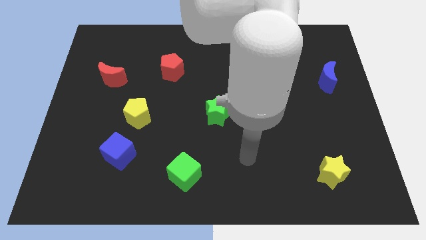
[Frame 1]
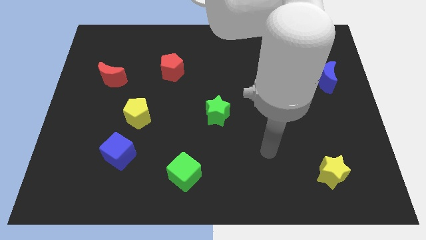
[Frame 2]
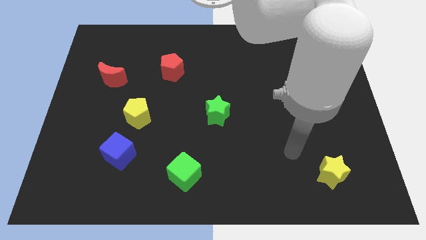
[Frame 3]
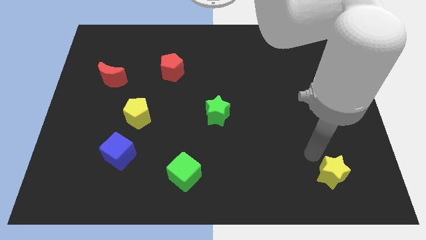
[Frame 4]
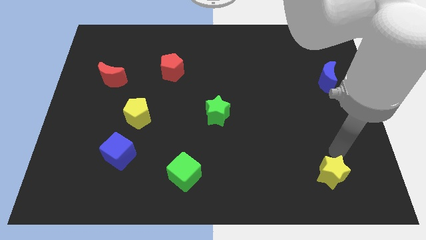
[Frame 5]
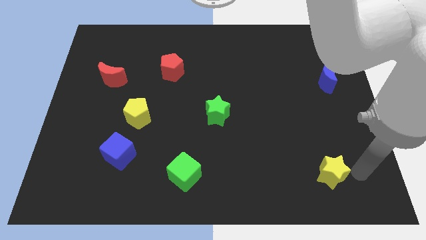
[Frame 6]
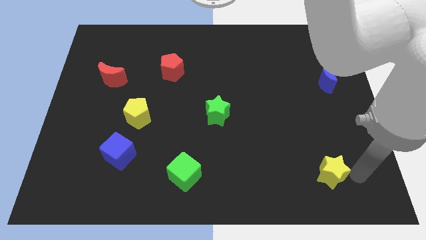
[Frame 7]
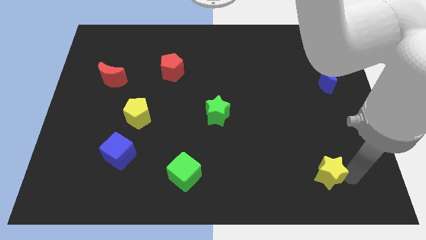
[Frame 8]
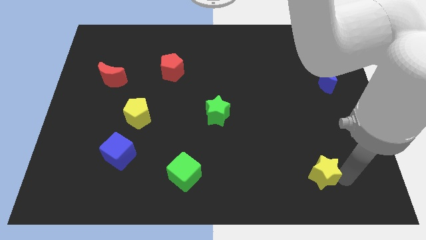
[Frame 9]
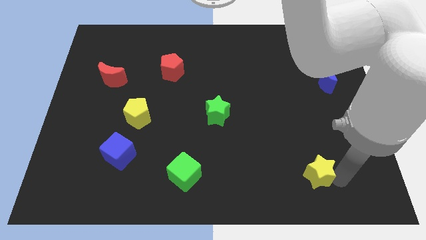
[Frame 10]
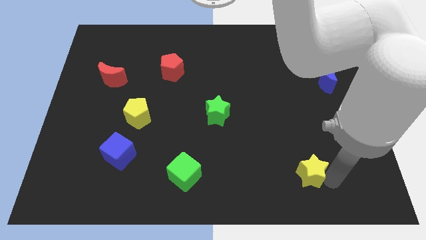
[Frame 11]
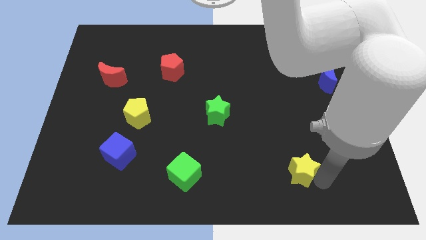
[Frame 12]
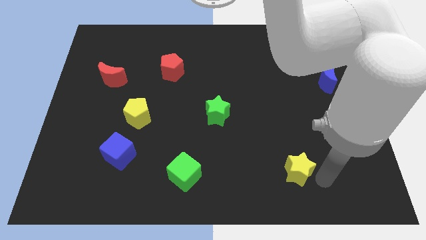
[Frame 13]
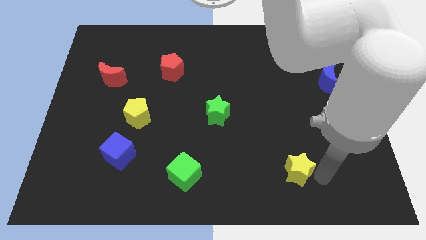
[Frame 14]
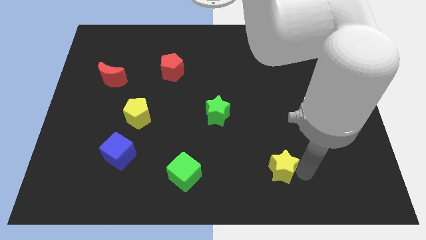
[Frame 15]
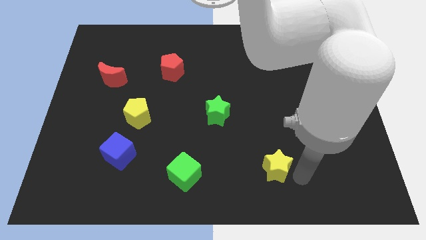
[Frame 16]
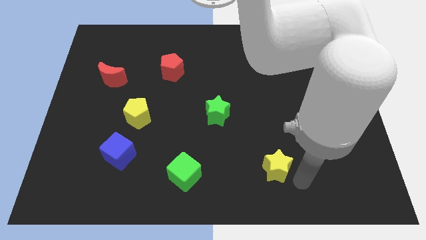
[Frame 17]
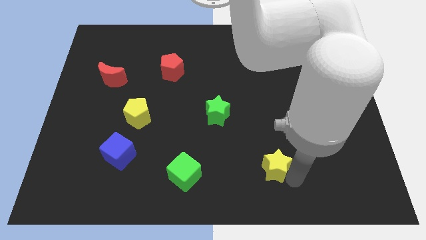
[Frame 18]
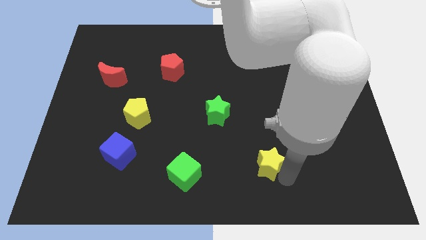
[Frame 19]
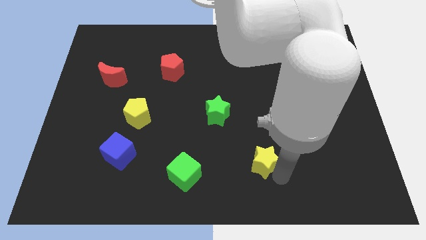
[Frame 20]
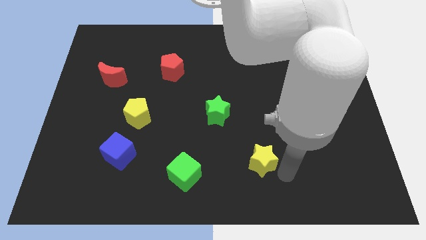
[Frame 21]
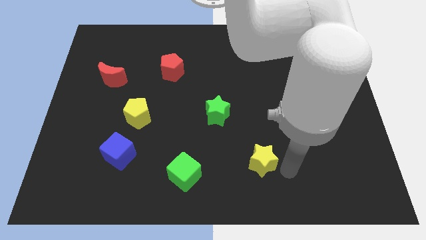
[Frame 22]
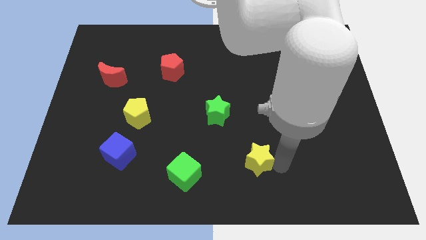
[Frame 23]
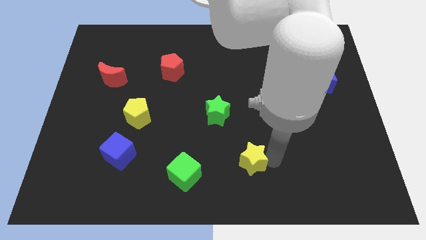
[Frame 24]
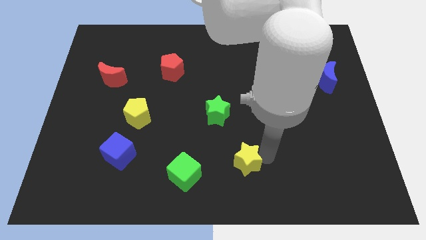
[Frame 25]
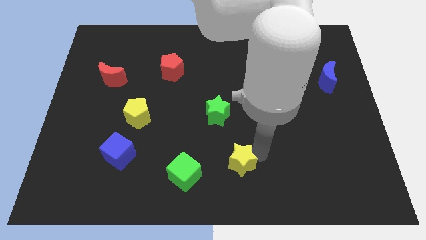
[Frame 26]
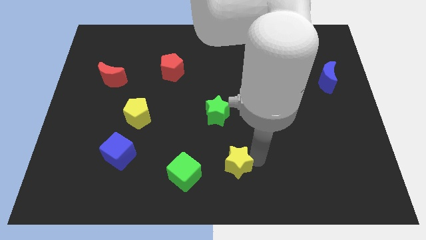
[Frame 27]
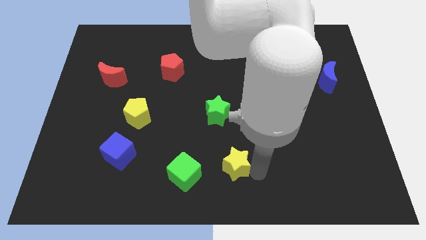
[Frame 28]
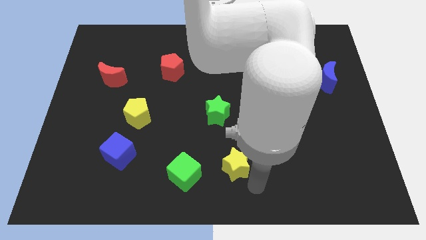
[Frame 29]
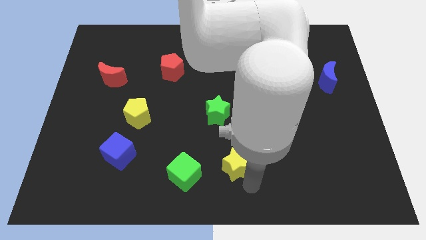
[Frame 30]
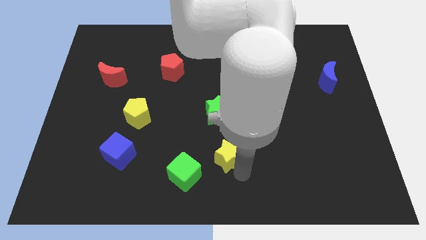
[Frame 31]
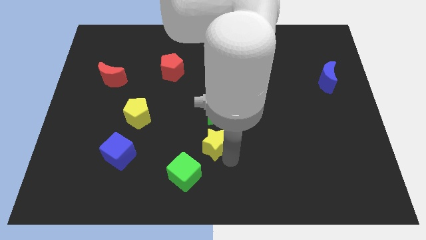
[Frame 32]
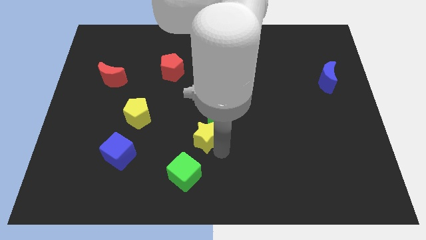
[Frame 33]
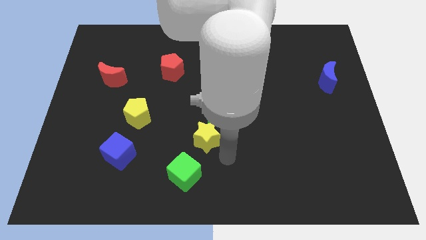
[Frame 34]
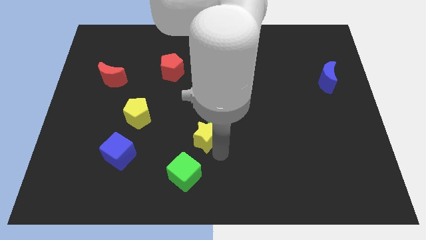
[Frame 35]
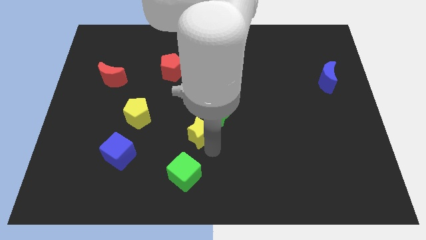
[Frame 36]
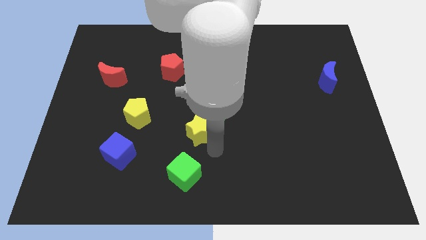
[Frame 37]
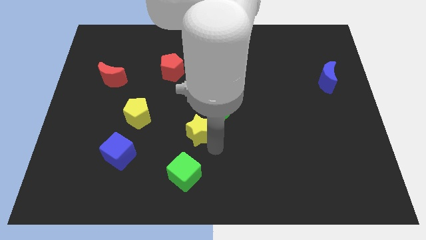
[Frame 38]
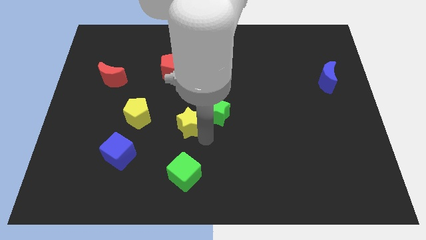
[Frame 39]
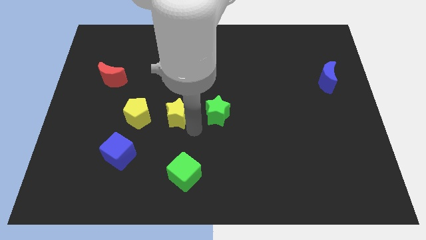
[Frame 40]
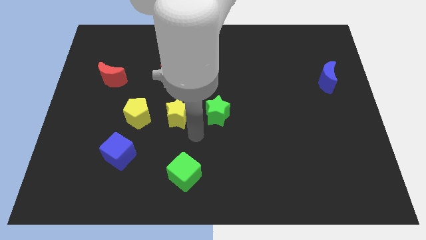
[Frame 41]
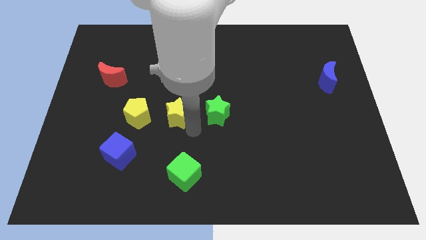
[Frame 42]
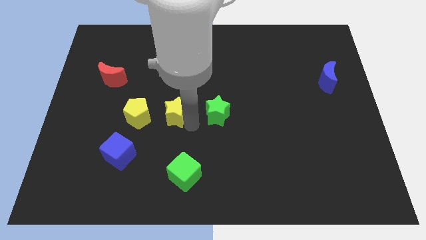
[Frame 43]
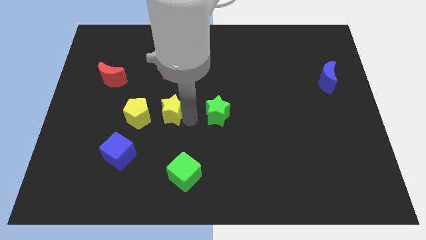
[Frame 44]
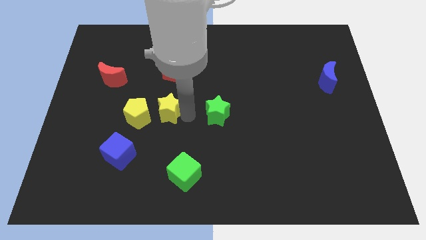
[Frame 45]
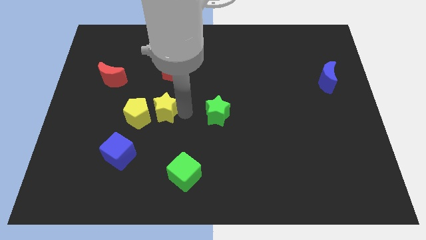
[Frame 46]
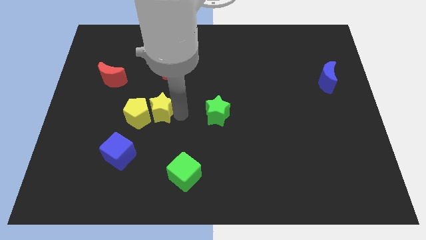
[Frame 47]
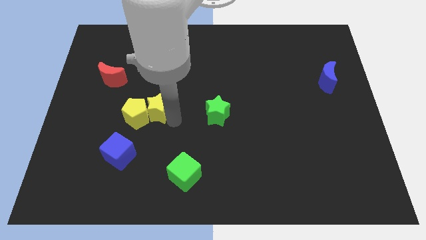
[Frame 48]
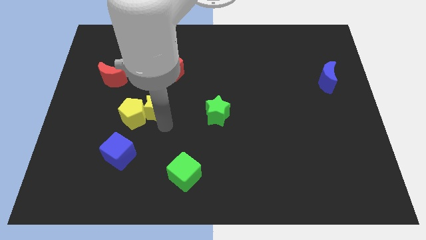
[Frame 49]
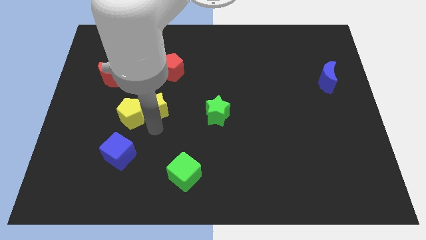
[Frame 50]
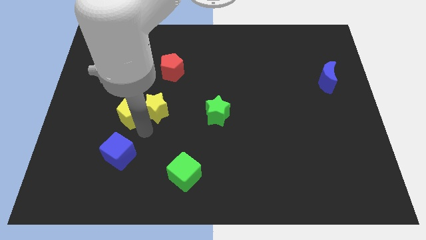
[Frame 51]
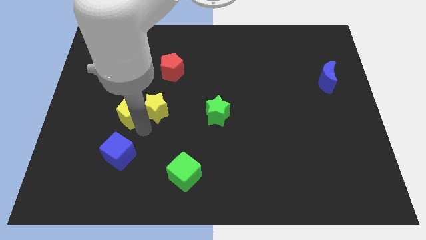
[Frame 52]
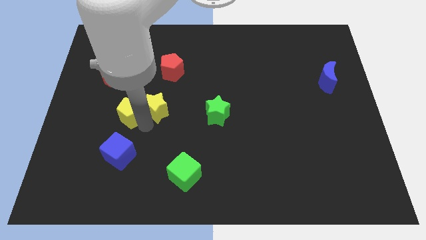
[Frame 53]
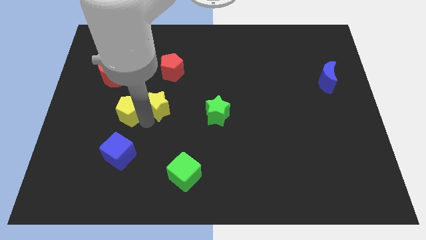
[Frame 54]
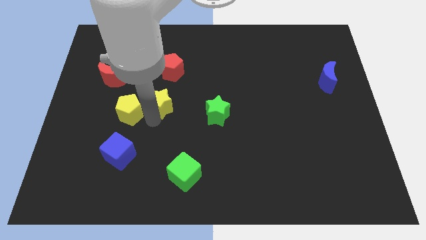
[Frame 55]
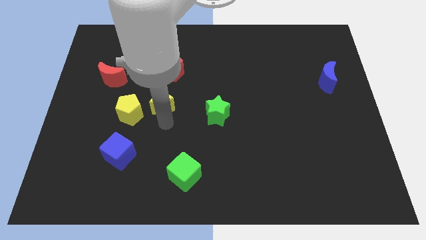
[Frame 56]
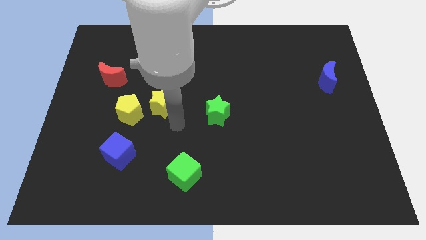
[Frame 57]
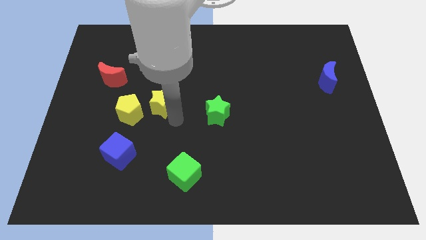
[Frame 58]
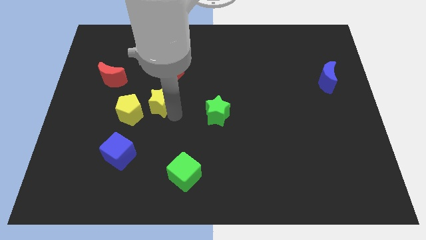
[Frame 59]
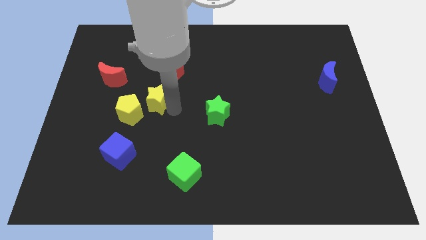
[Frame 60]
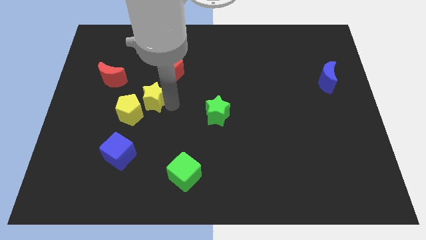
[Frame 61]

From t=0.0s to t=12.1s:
slide the yellow star diagonally down and to the left of the red pentagon
